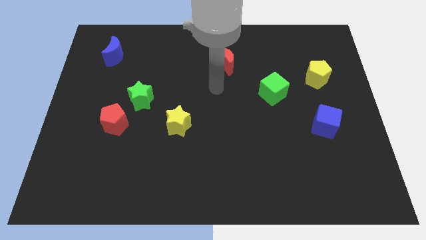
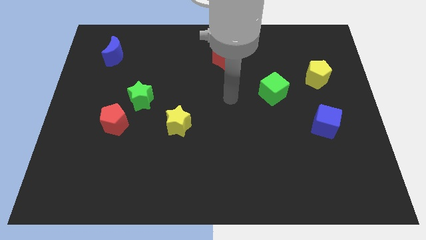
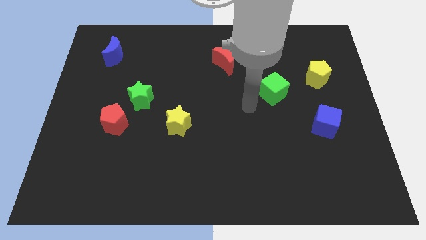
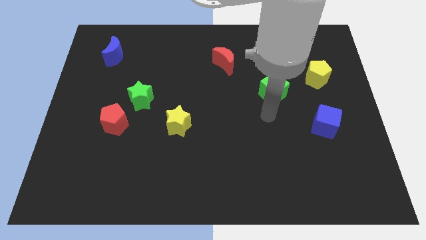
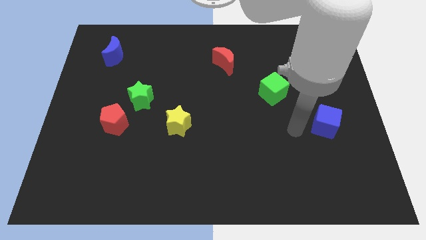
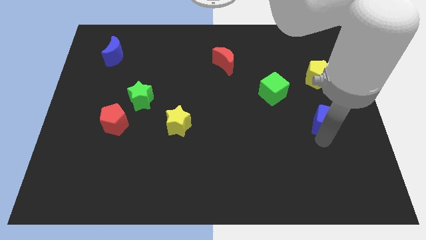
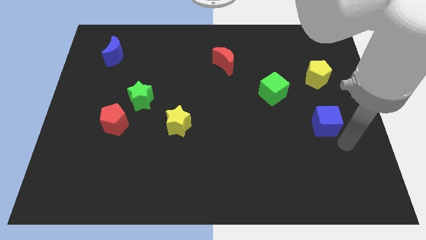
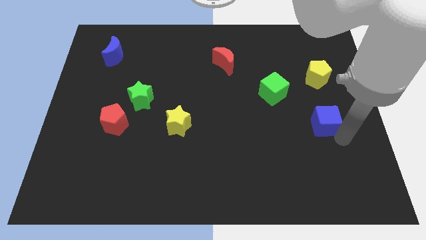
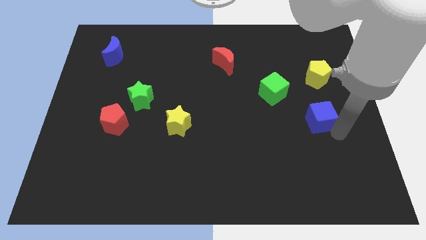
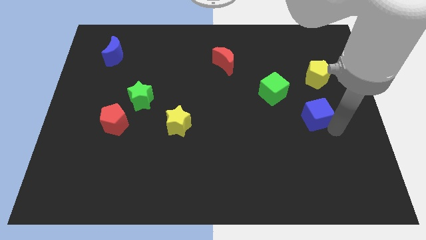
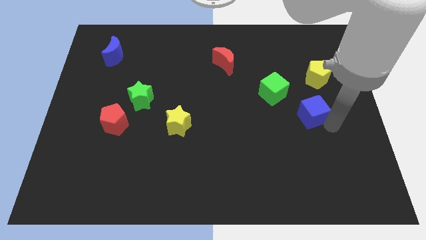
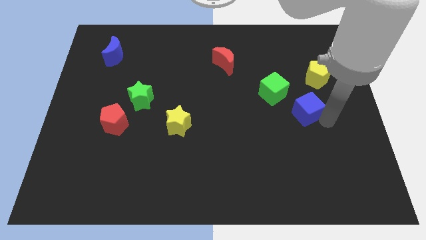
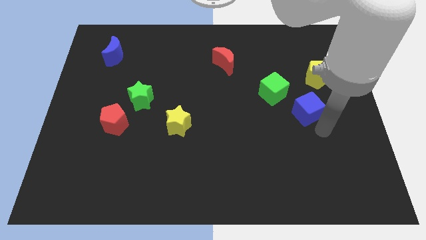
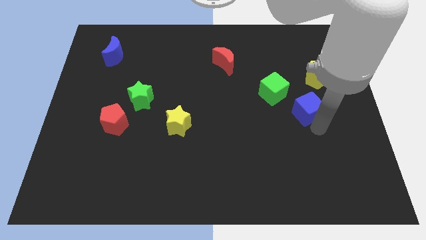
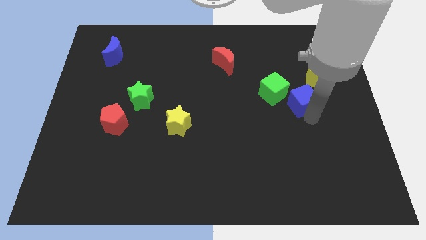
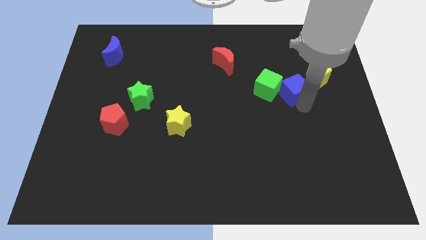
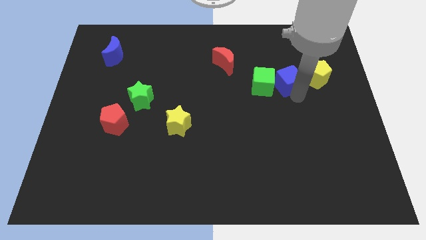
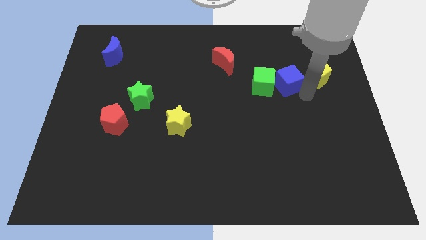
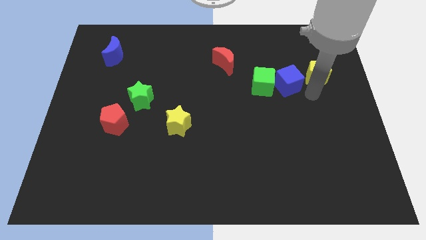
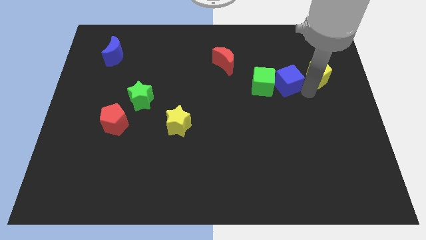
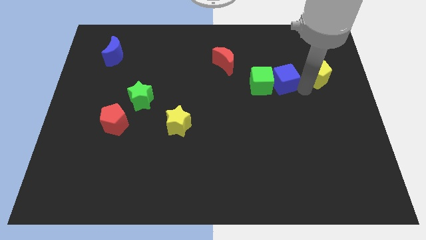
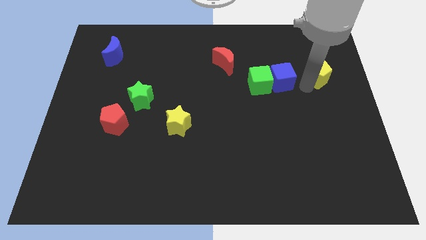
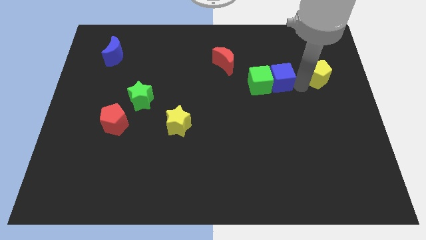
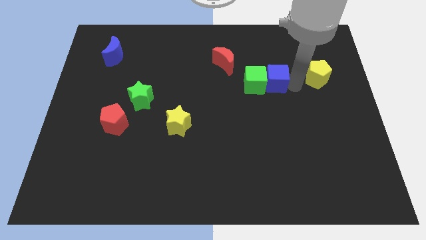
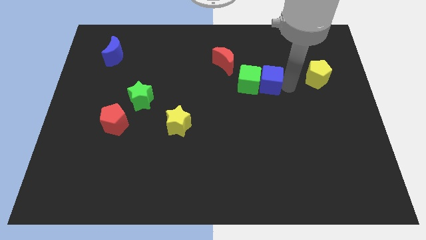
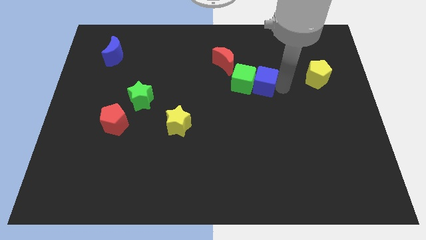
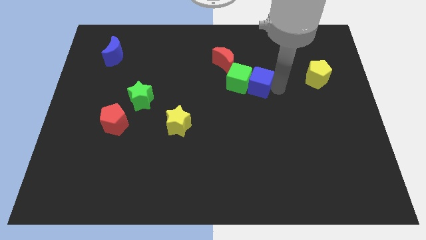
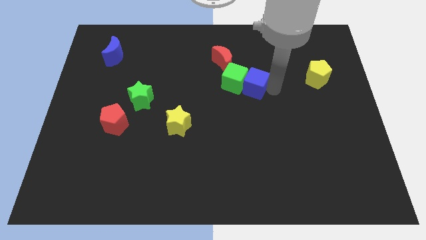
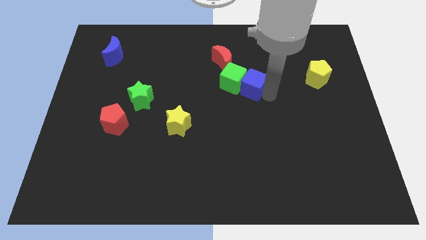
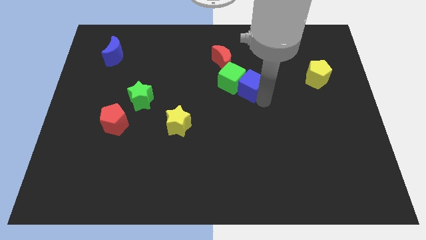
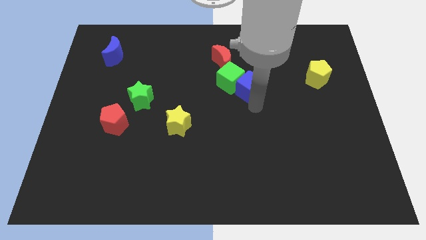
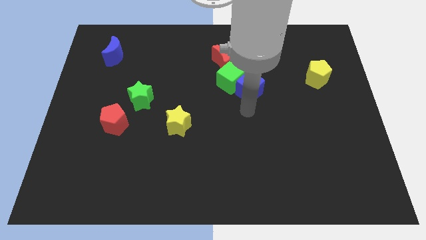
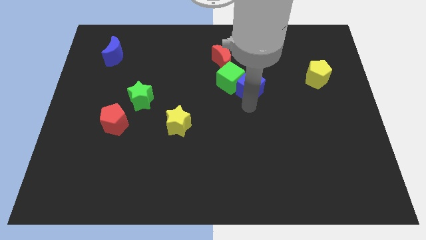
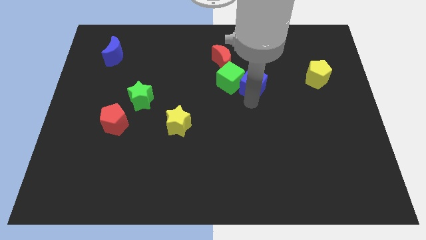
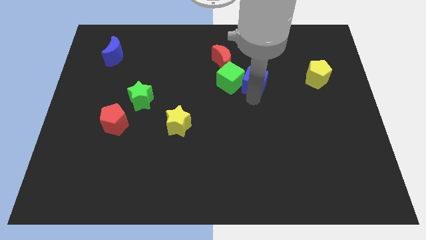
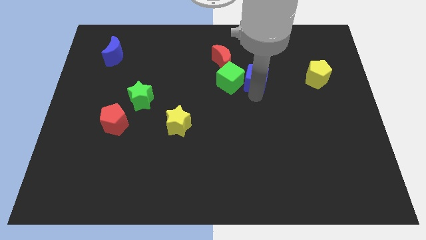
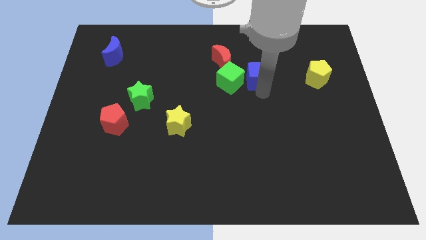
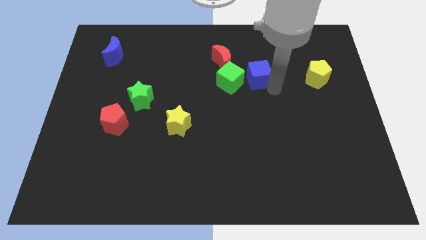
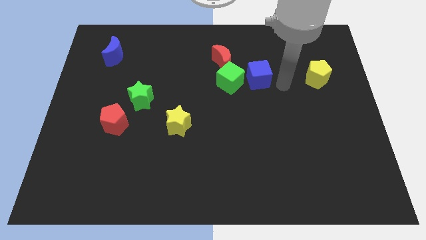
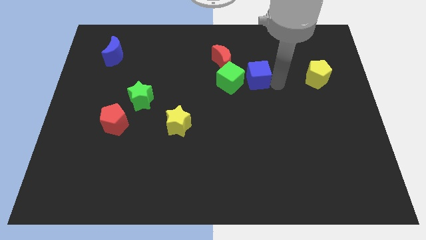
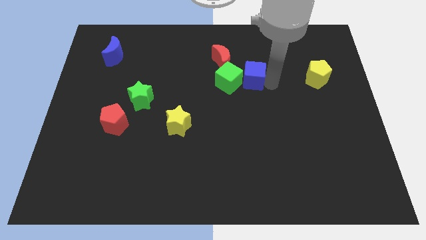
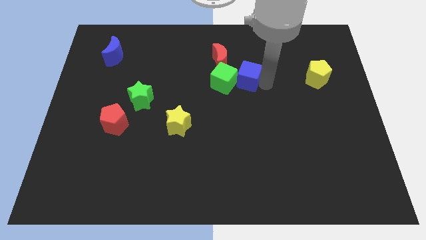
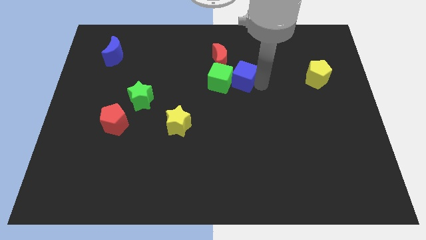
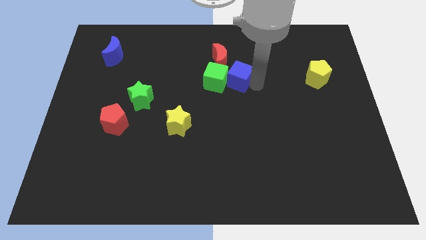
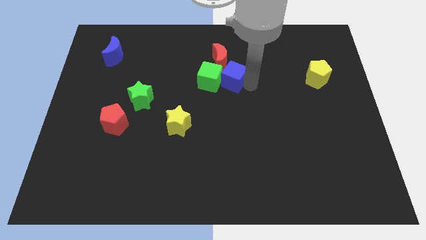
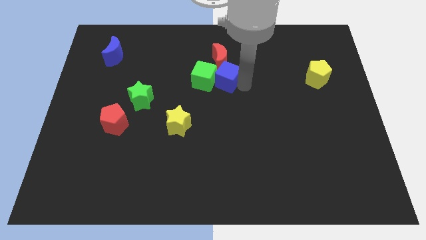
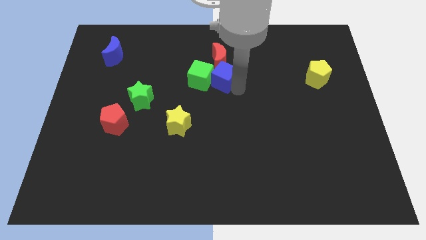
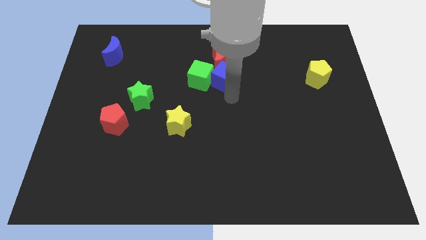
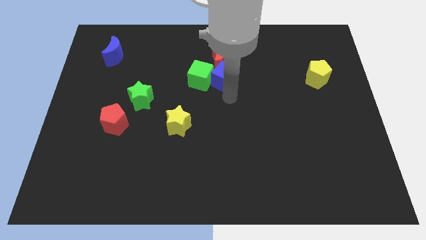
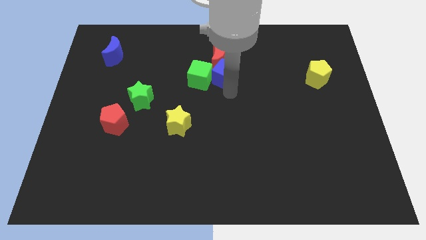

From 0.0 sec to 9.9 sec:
slide the blue cube next to the red moon

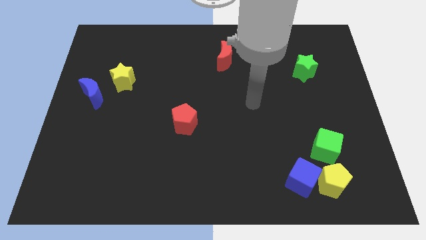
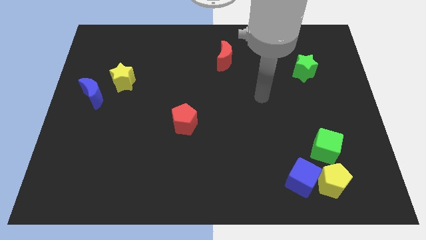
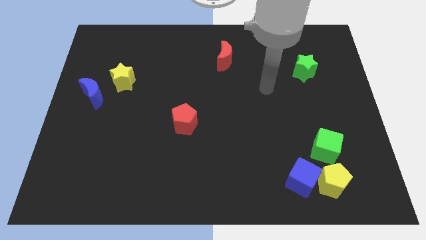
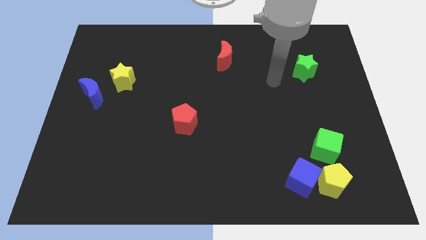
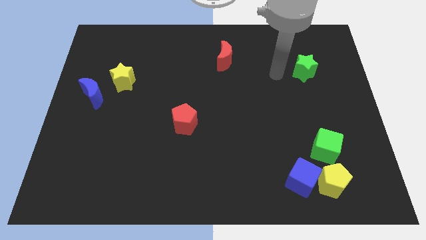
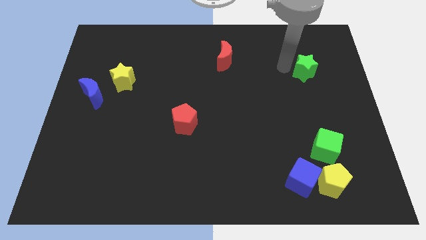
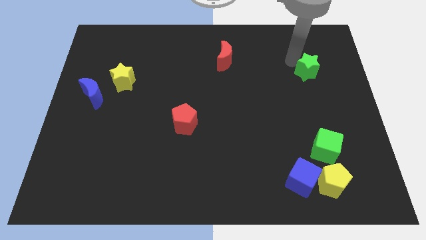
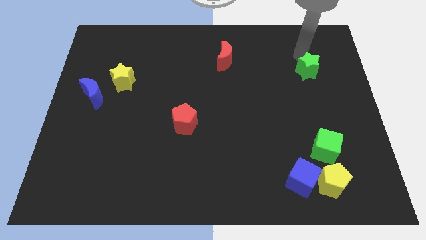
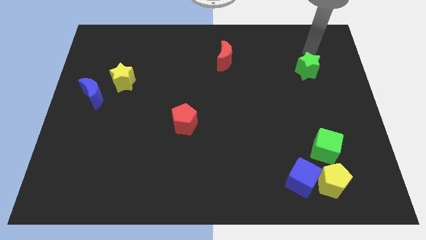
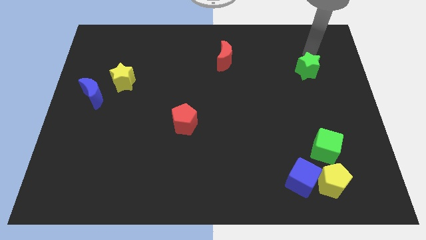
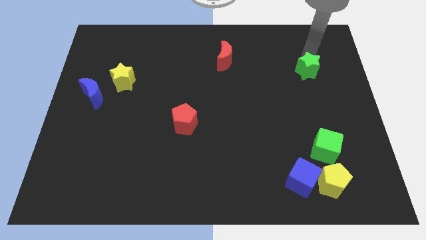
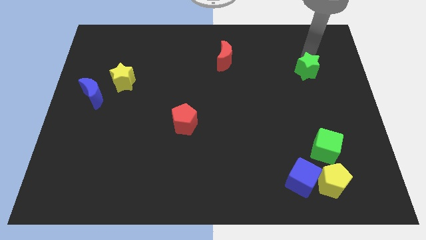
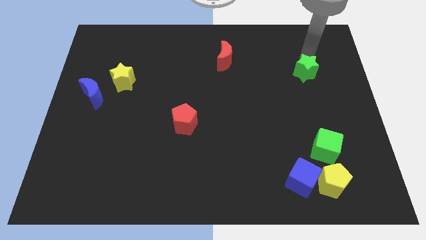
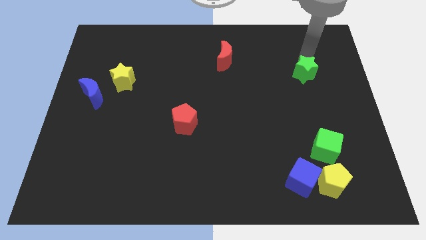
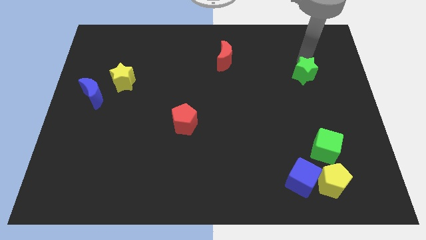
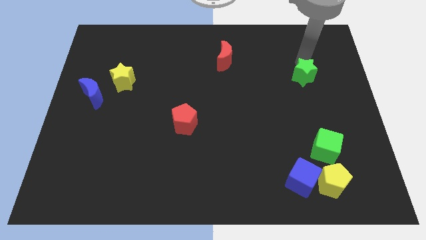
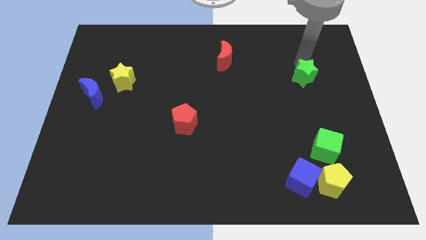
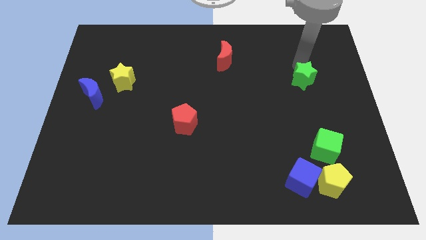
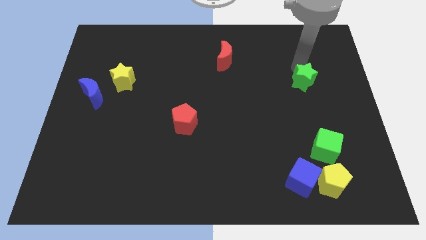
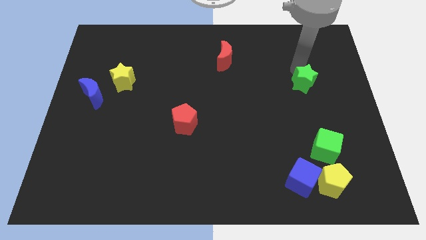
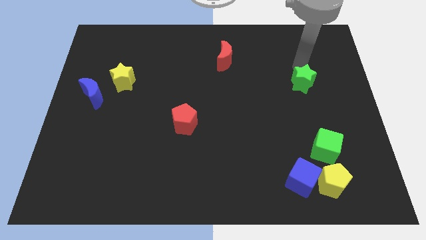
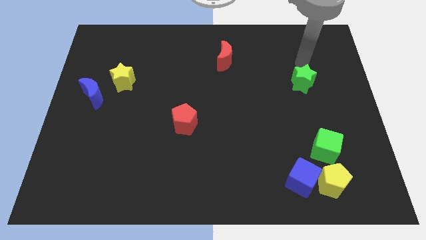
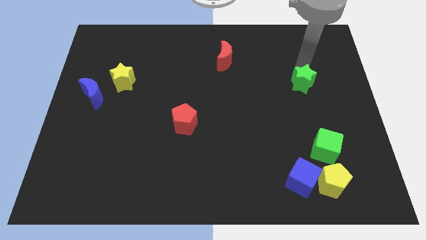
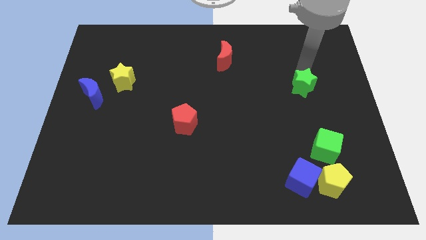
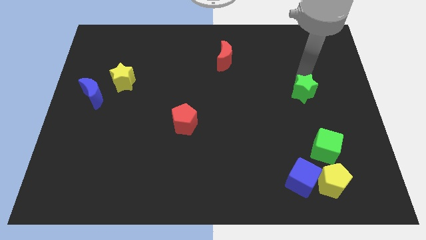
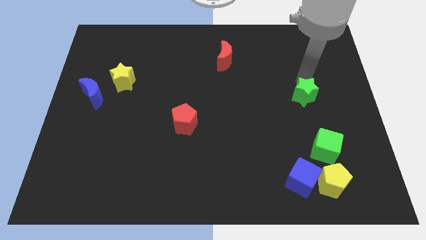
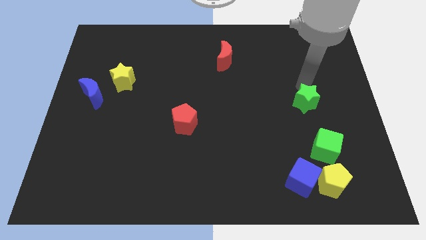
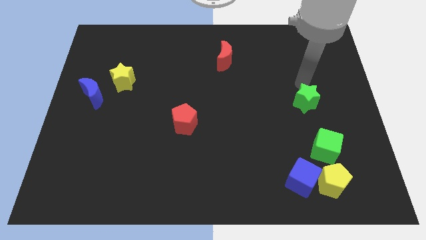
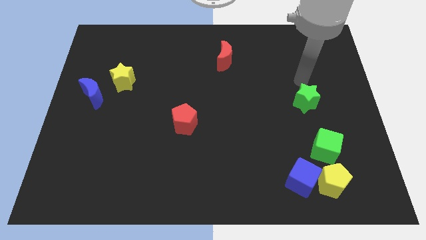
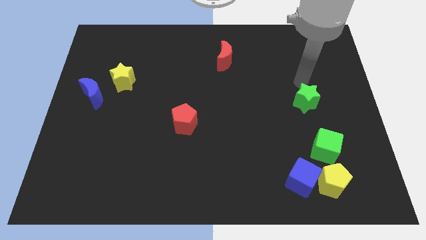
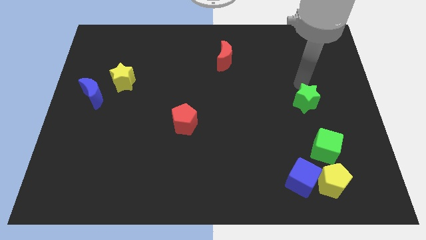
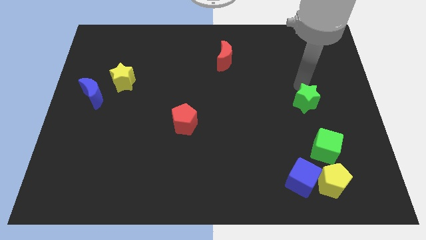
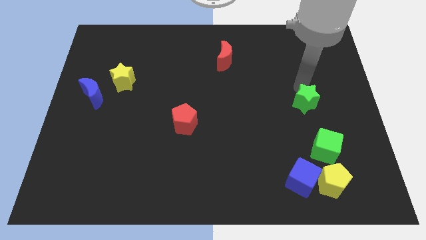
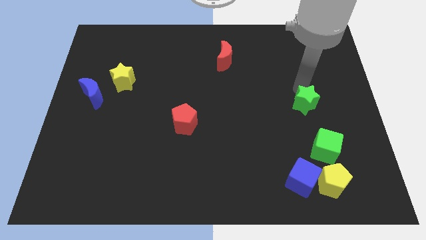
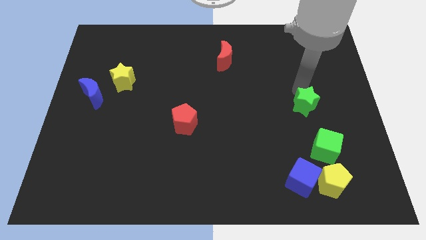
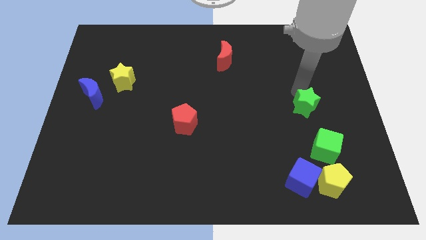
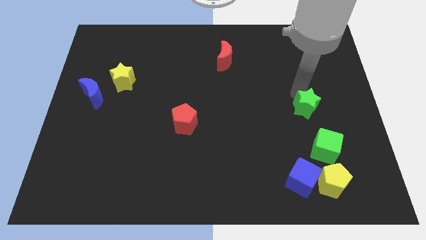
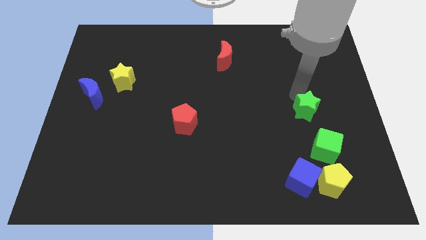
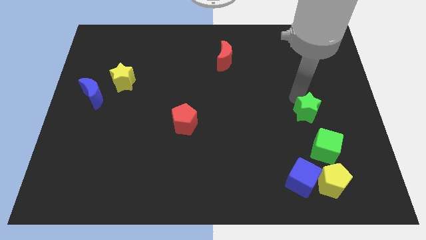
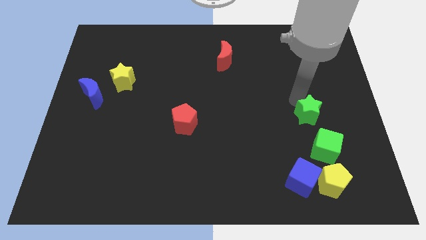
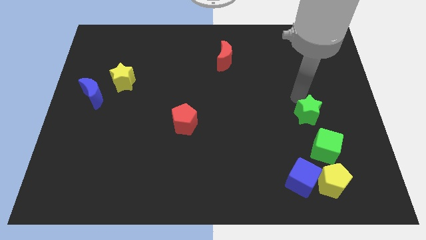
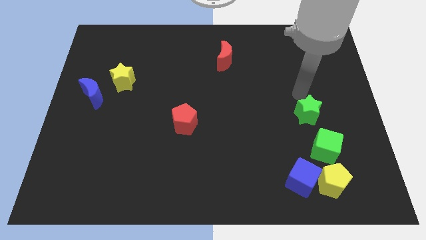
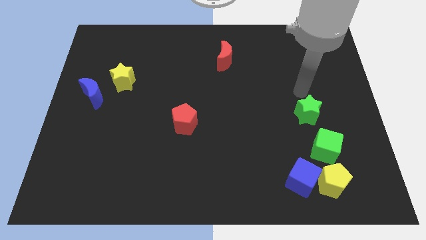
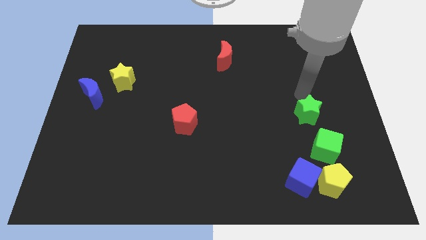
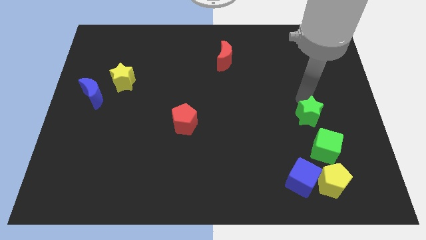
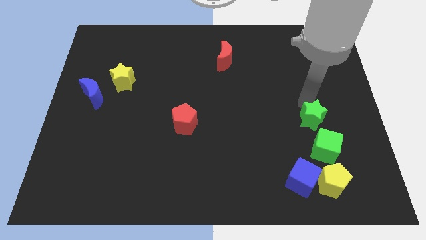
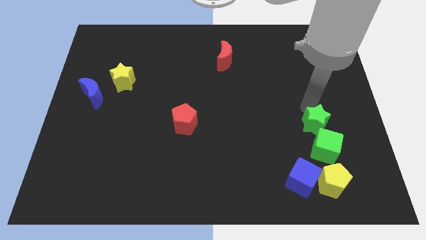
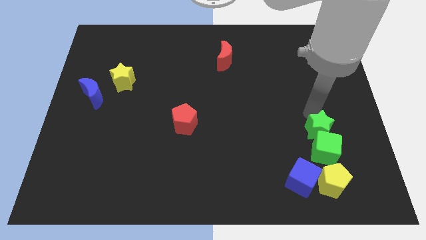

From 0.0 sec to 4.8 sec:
slide the green star next to the green cube
